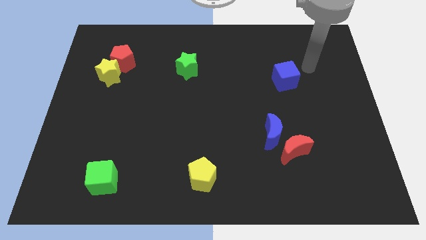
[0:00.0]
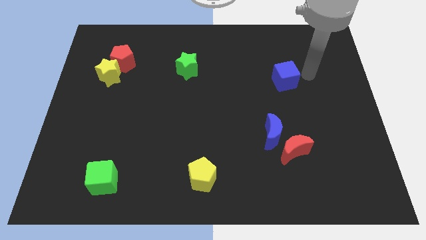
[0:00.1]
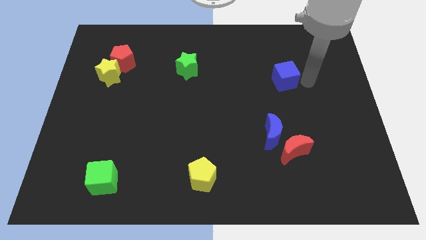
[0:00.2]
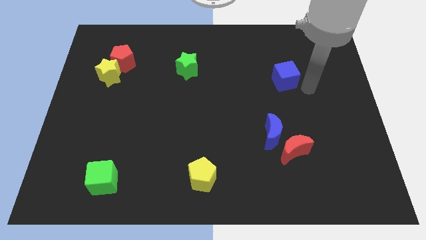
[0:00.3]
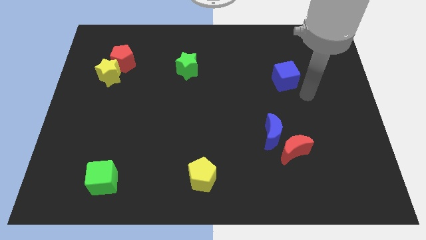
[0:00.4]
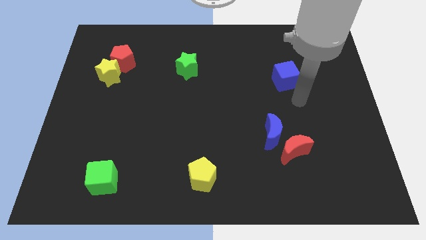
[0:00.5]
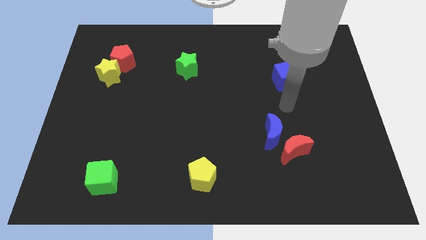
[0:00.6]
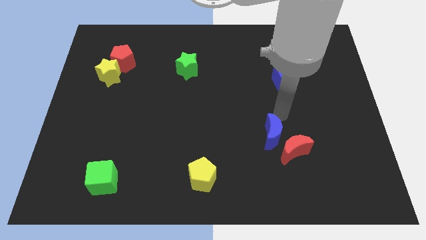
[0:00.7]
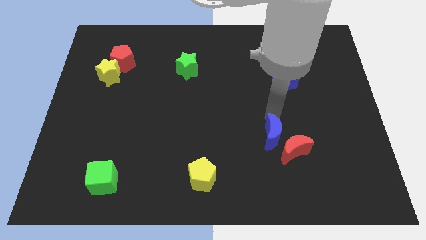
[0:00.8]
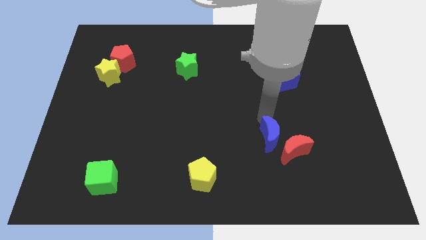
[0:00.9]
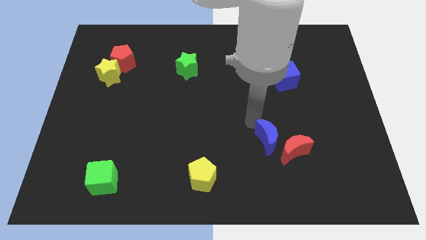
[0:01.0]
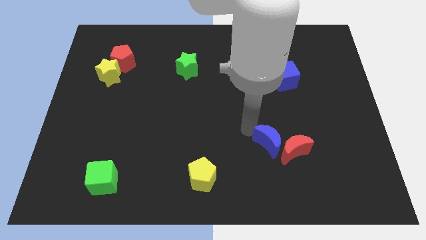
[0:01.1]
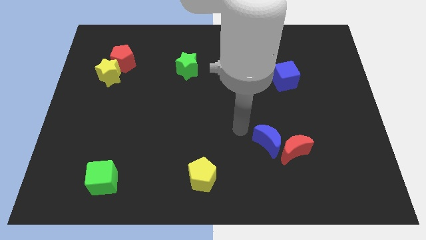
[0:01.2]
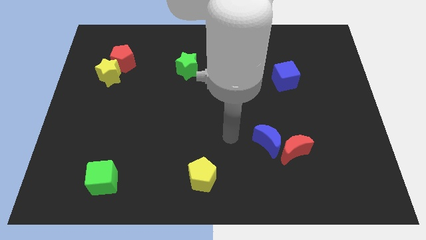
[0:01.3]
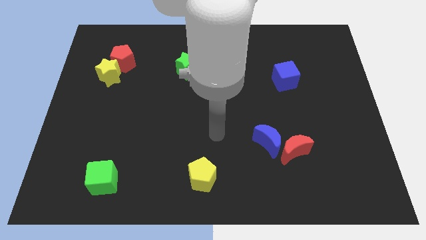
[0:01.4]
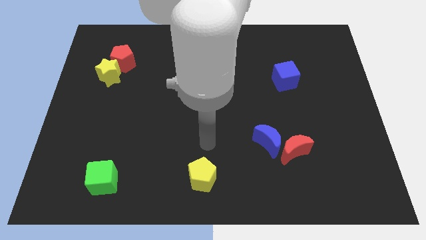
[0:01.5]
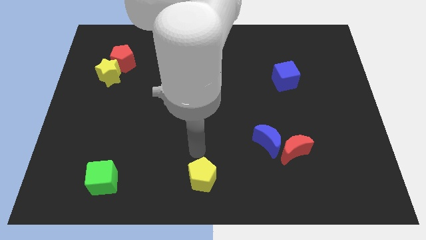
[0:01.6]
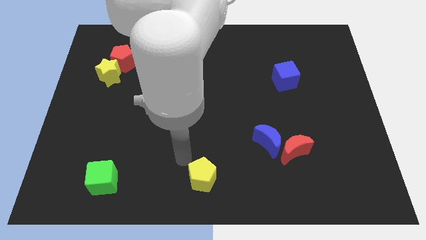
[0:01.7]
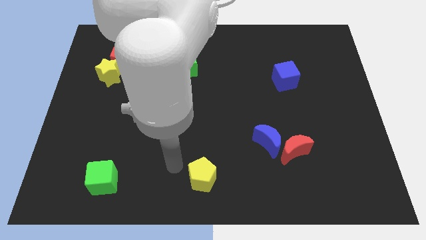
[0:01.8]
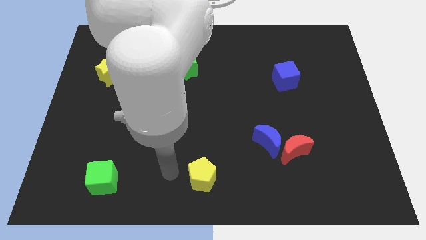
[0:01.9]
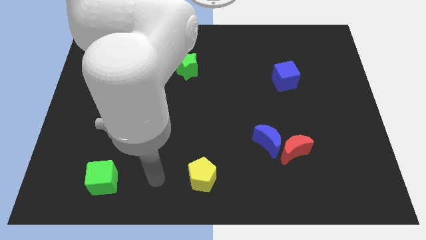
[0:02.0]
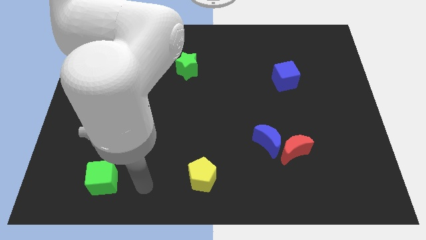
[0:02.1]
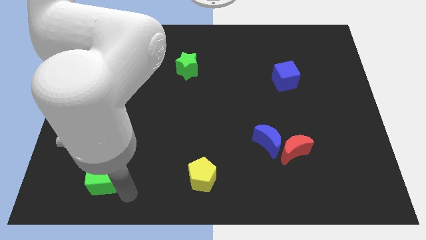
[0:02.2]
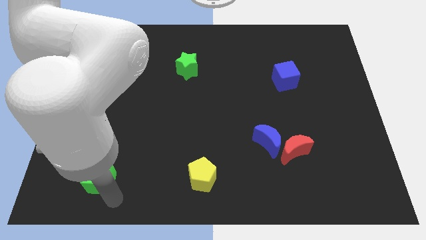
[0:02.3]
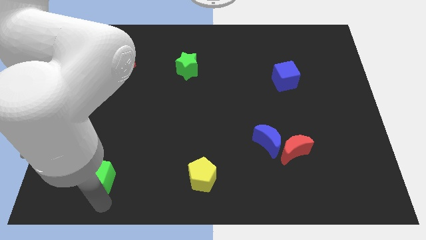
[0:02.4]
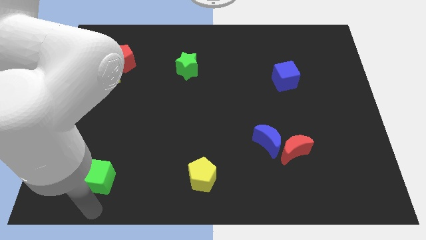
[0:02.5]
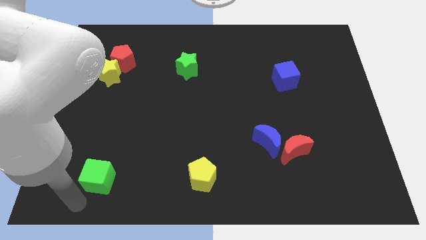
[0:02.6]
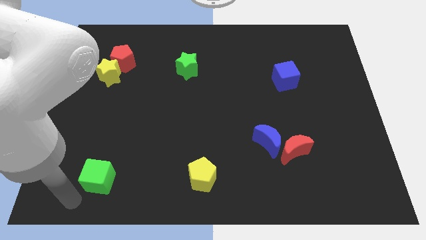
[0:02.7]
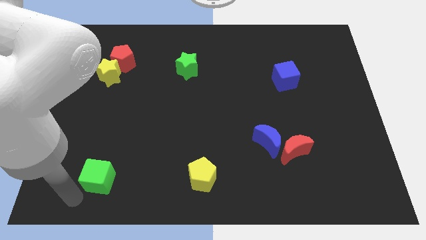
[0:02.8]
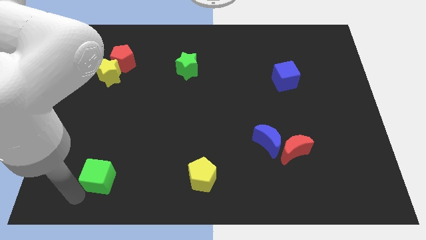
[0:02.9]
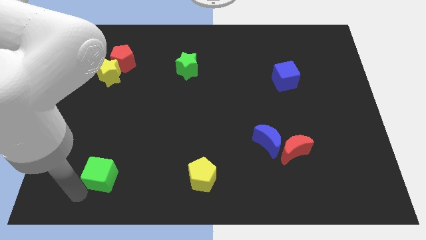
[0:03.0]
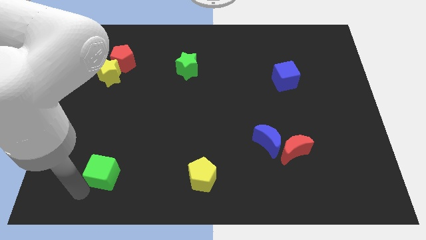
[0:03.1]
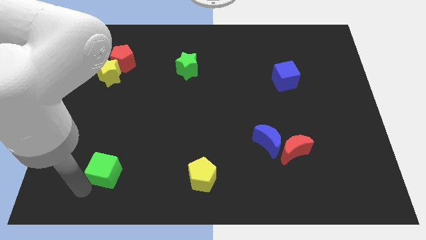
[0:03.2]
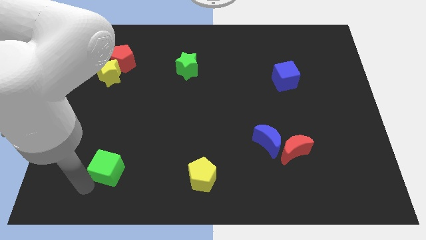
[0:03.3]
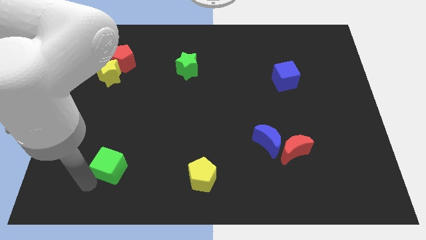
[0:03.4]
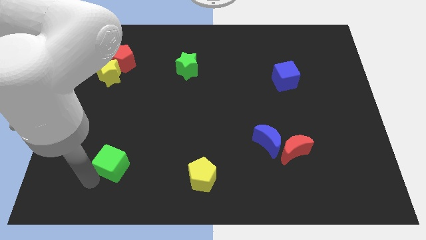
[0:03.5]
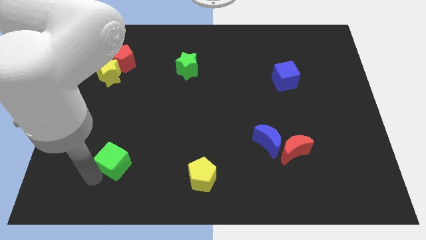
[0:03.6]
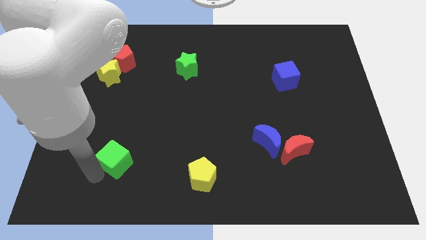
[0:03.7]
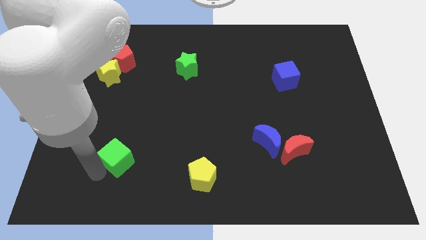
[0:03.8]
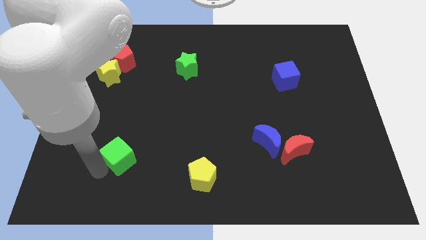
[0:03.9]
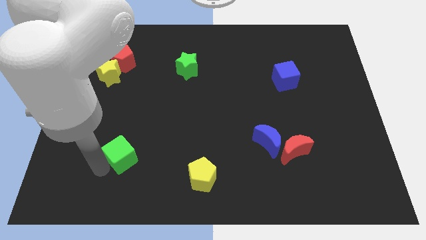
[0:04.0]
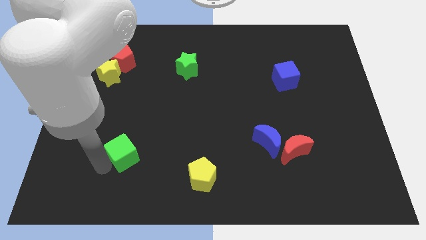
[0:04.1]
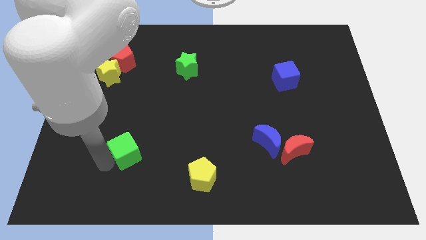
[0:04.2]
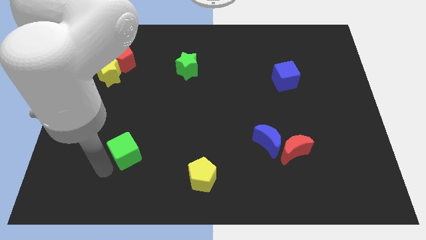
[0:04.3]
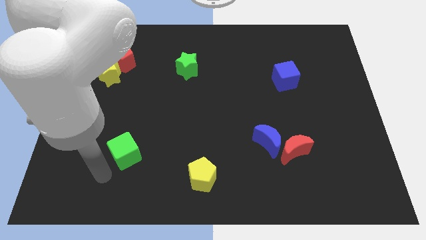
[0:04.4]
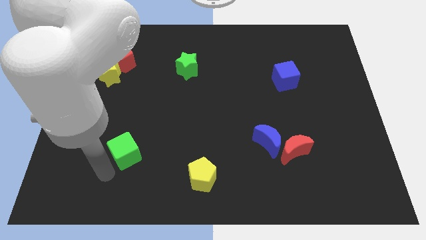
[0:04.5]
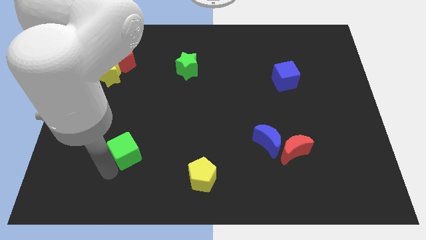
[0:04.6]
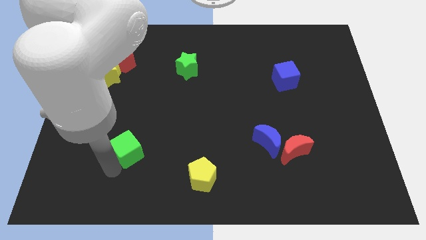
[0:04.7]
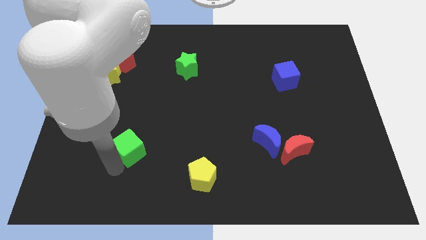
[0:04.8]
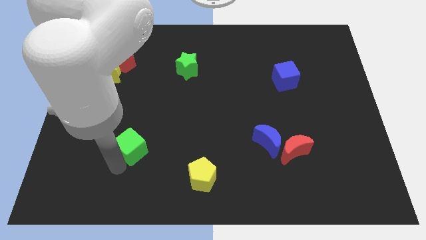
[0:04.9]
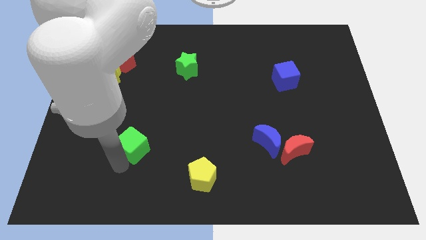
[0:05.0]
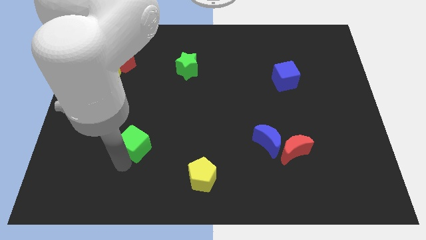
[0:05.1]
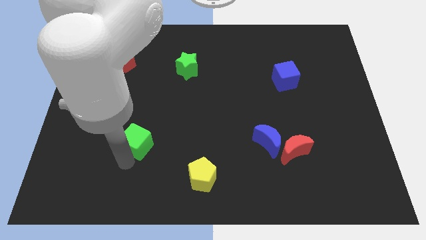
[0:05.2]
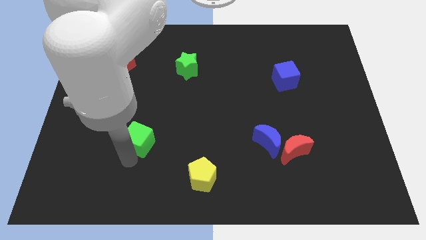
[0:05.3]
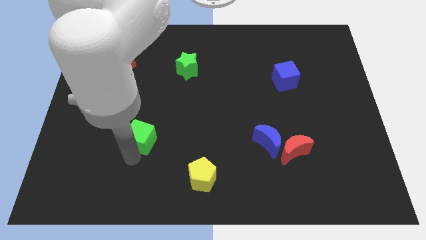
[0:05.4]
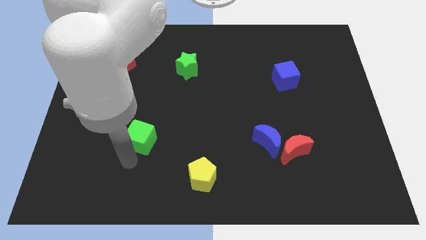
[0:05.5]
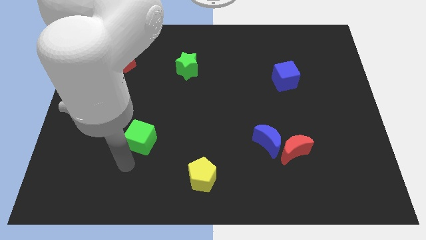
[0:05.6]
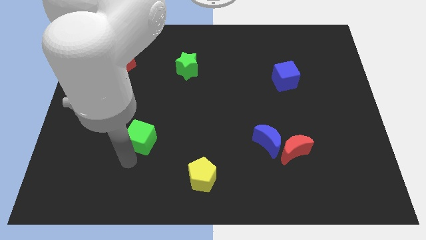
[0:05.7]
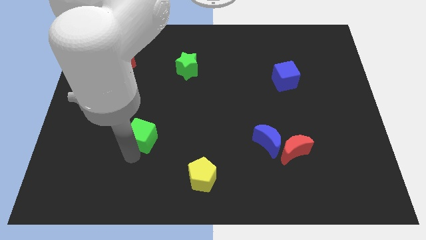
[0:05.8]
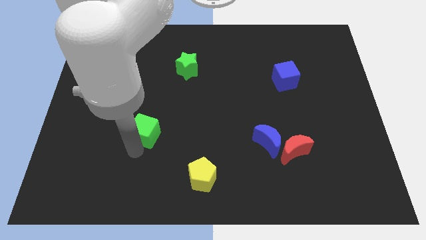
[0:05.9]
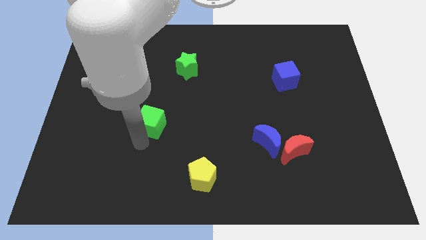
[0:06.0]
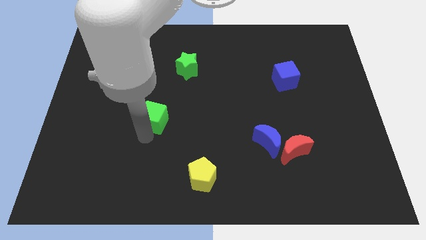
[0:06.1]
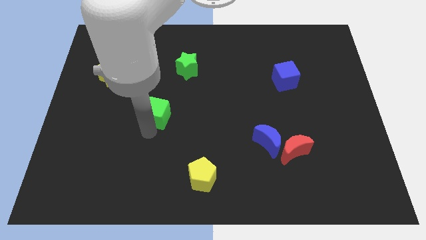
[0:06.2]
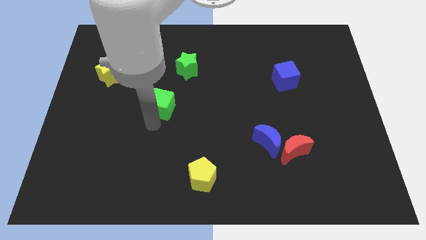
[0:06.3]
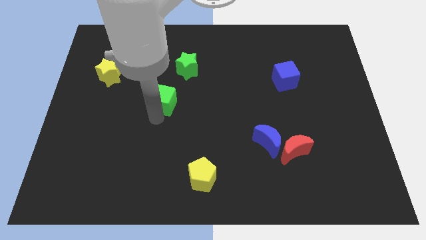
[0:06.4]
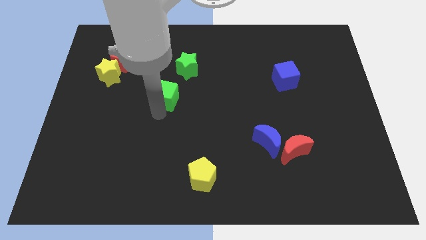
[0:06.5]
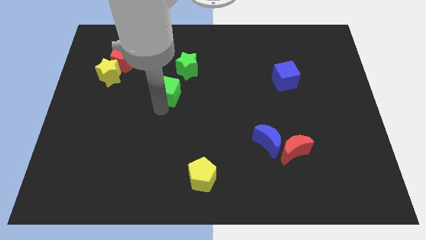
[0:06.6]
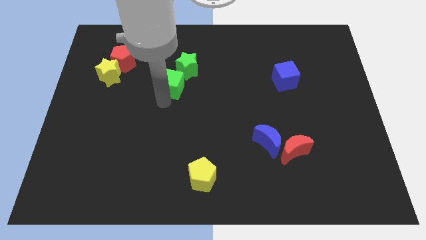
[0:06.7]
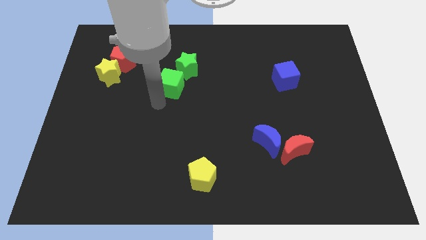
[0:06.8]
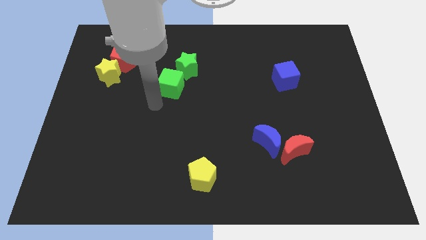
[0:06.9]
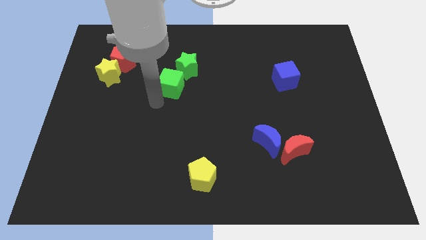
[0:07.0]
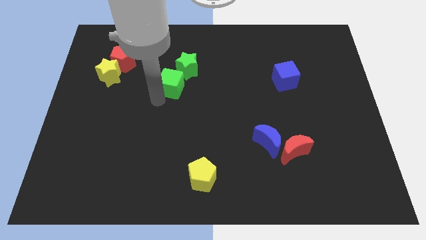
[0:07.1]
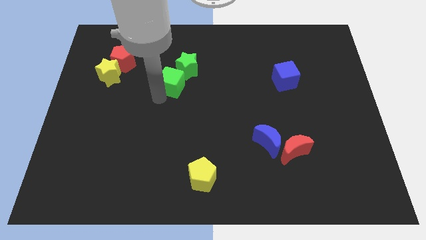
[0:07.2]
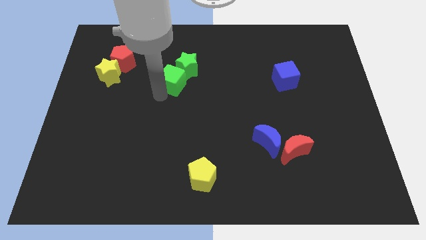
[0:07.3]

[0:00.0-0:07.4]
slide the green cube close to the green star
